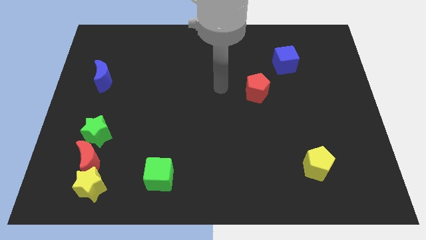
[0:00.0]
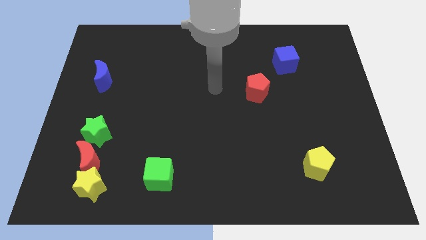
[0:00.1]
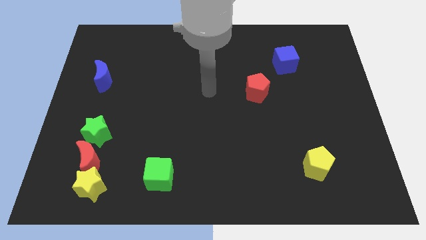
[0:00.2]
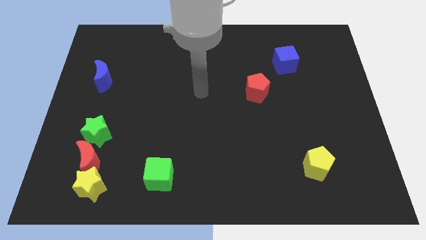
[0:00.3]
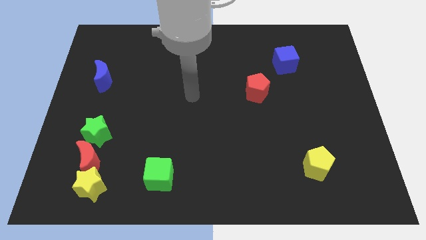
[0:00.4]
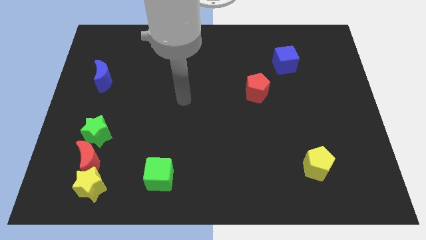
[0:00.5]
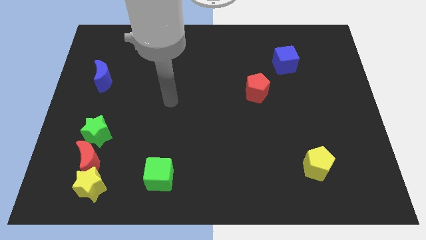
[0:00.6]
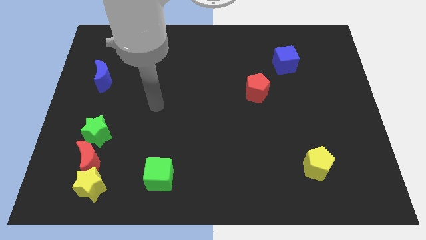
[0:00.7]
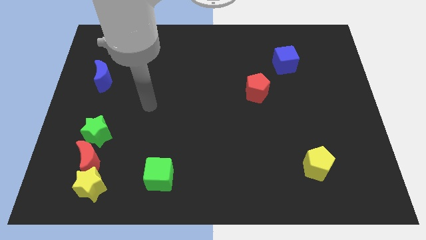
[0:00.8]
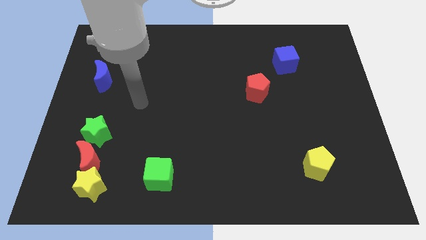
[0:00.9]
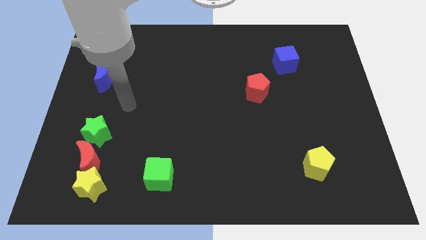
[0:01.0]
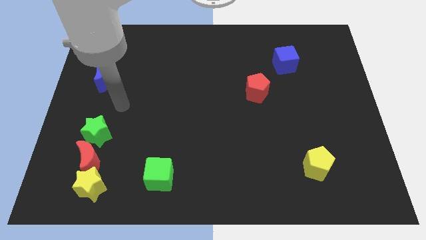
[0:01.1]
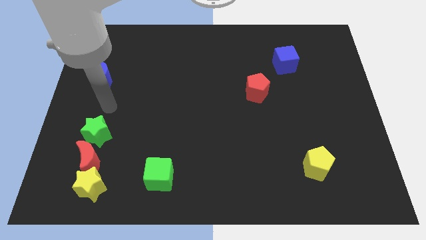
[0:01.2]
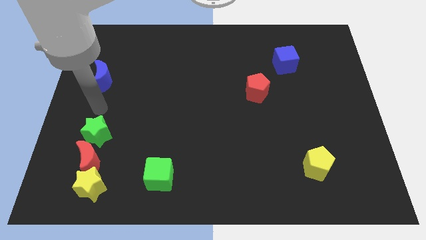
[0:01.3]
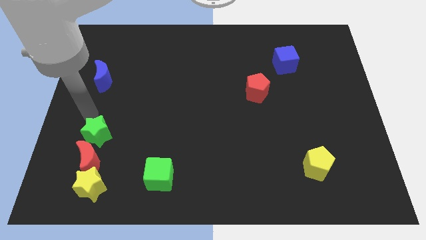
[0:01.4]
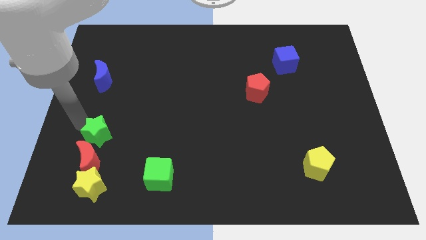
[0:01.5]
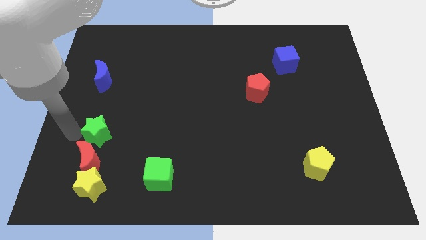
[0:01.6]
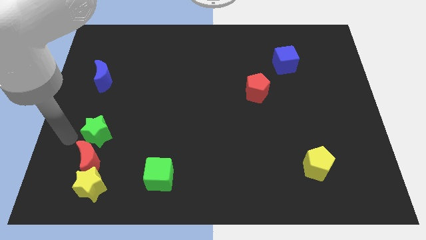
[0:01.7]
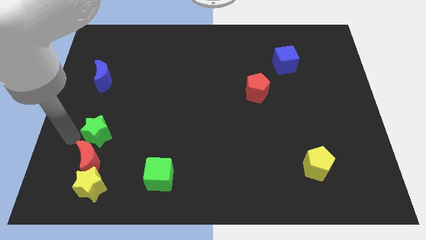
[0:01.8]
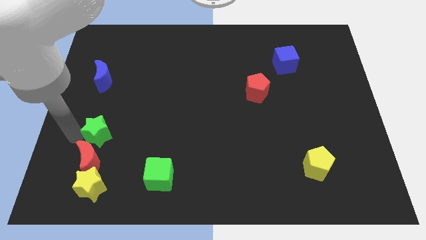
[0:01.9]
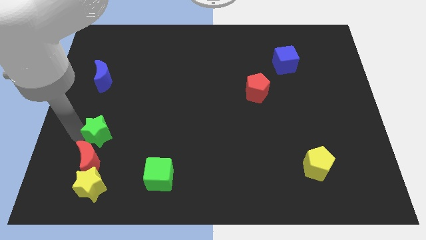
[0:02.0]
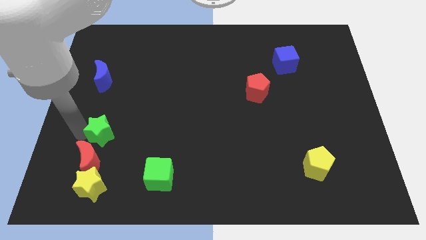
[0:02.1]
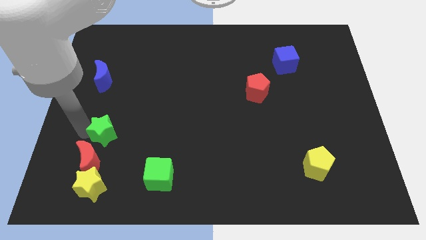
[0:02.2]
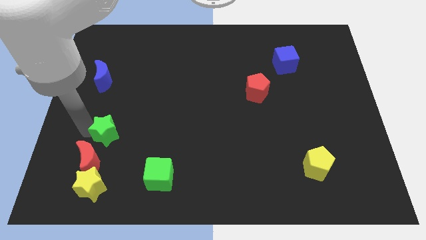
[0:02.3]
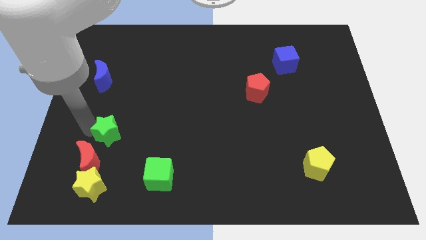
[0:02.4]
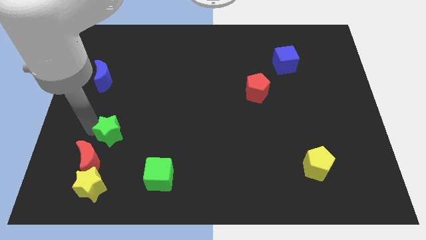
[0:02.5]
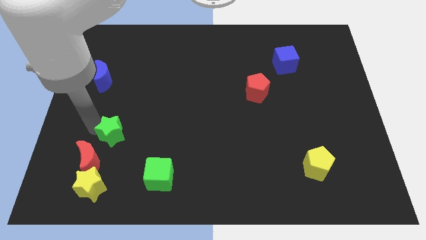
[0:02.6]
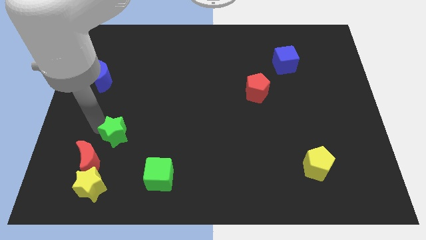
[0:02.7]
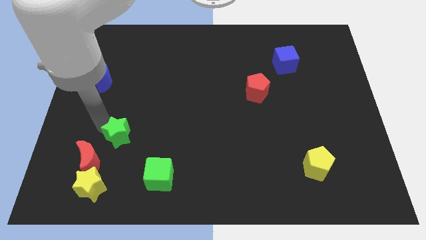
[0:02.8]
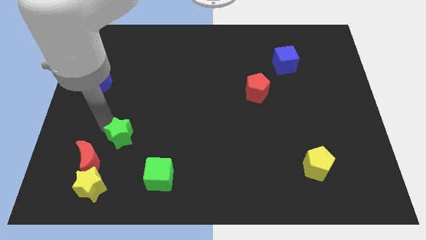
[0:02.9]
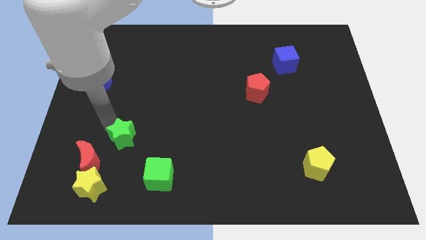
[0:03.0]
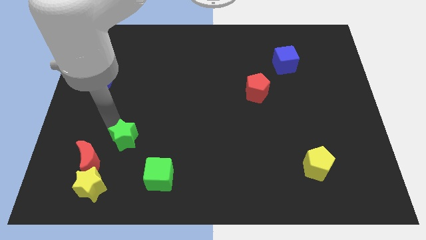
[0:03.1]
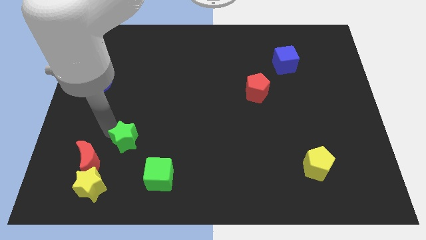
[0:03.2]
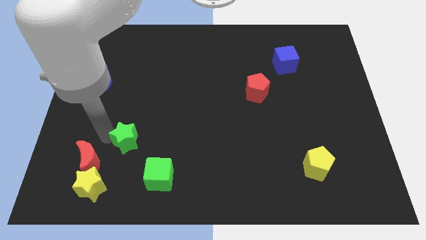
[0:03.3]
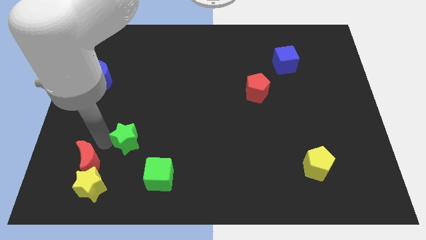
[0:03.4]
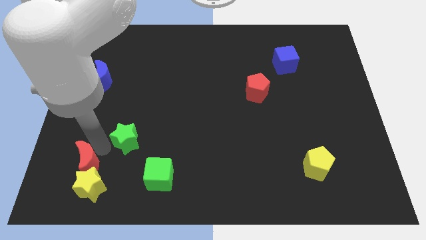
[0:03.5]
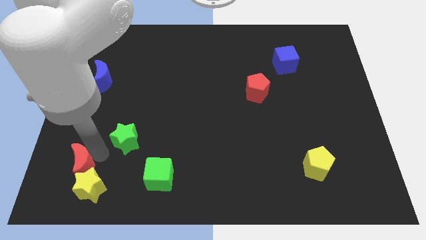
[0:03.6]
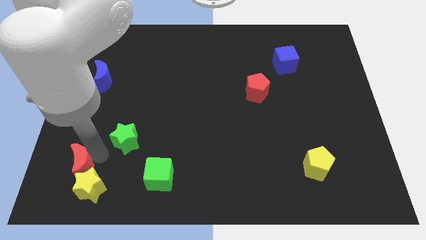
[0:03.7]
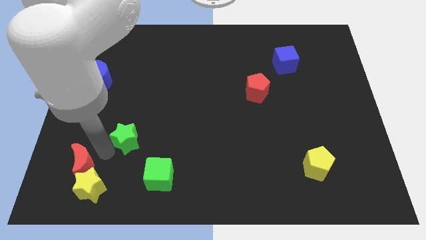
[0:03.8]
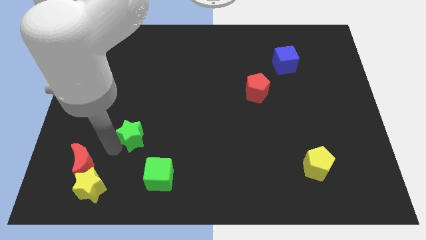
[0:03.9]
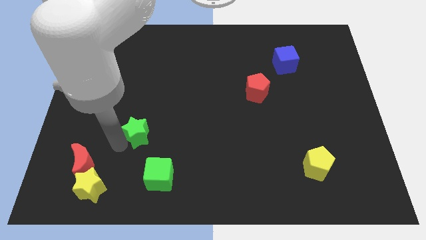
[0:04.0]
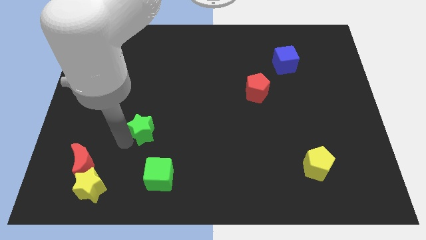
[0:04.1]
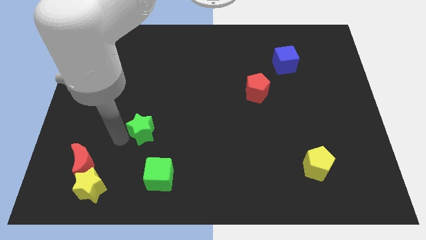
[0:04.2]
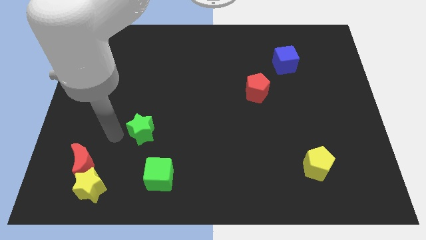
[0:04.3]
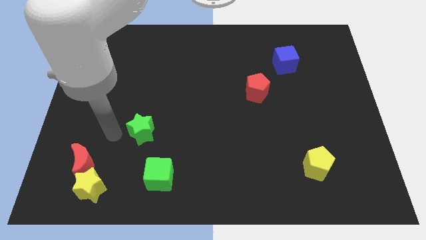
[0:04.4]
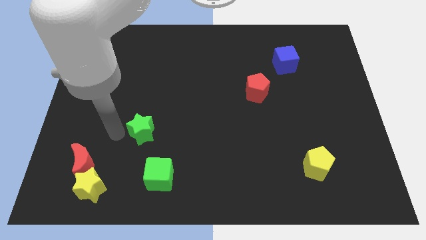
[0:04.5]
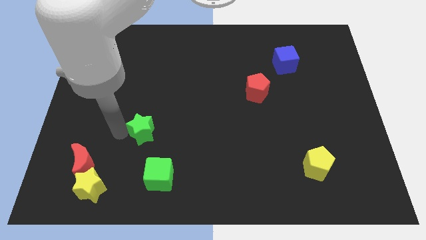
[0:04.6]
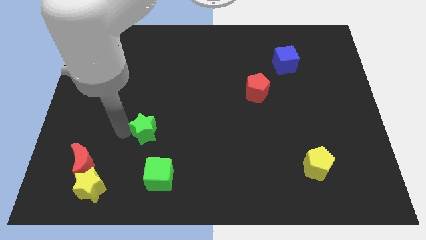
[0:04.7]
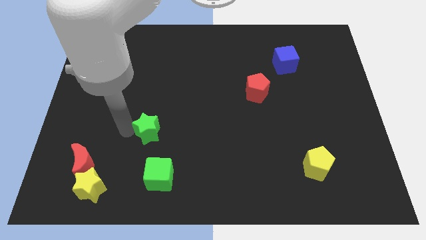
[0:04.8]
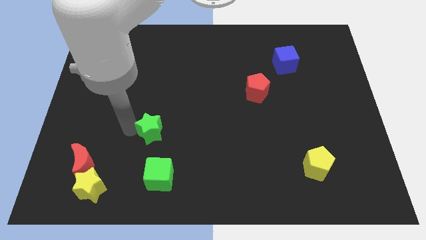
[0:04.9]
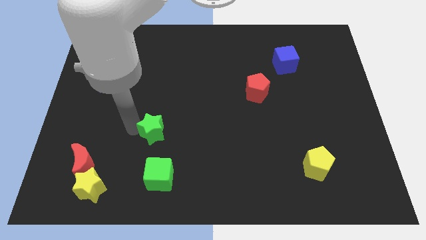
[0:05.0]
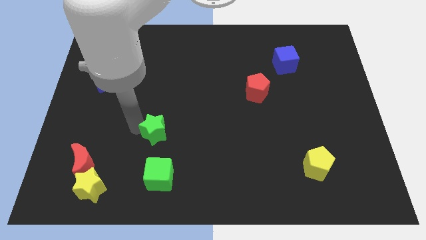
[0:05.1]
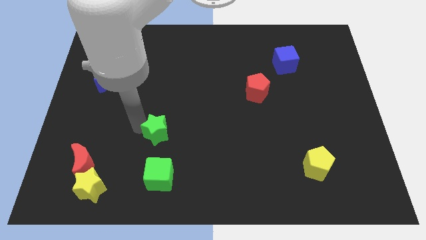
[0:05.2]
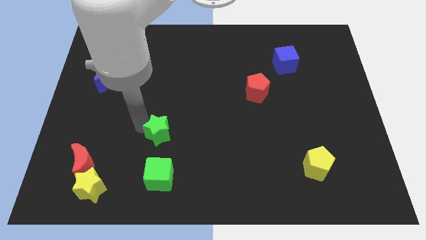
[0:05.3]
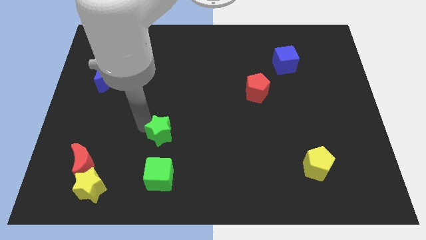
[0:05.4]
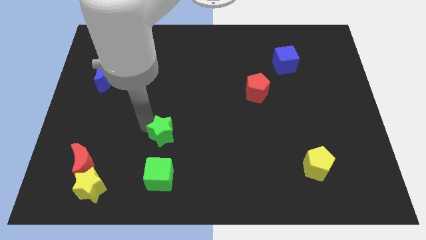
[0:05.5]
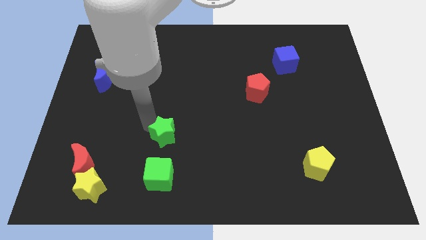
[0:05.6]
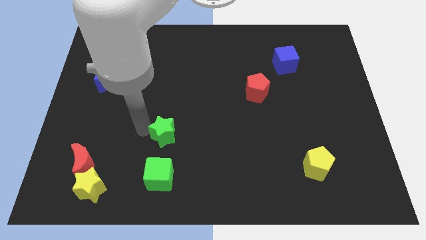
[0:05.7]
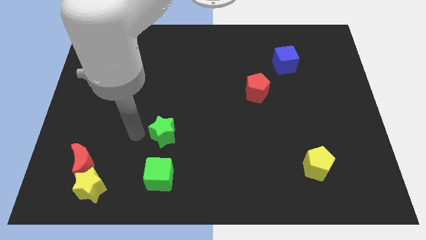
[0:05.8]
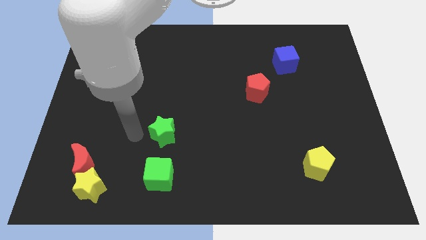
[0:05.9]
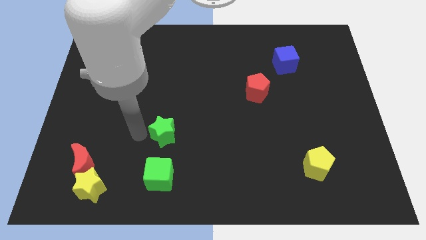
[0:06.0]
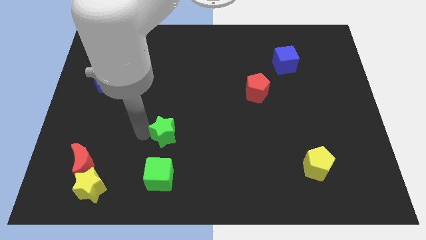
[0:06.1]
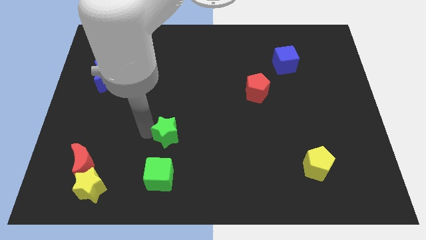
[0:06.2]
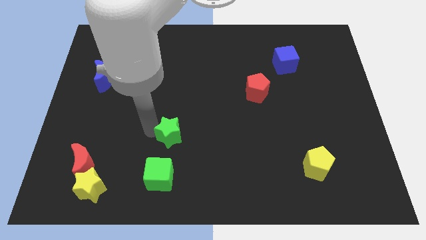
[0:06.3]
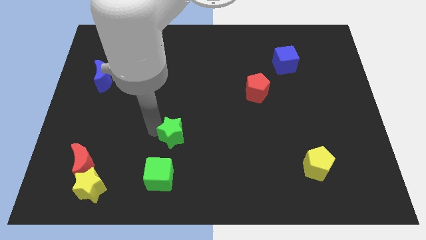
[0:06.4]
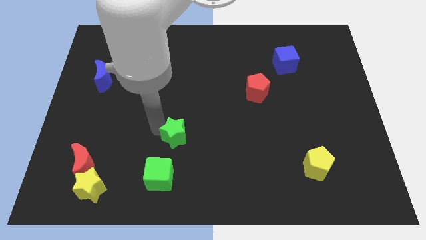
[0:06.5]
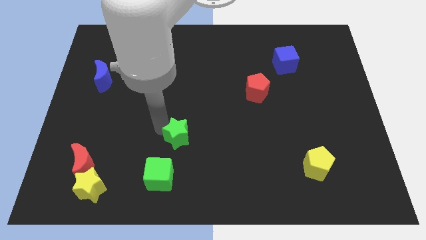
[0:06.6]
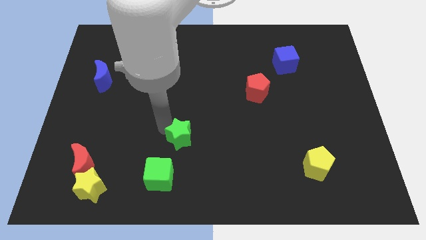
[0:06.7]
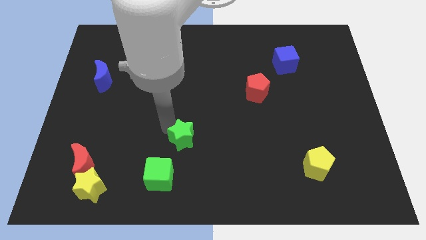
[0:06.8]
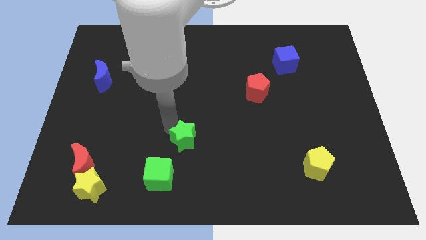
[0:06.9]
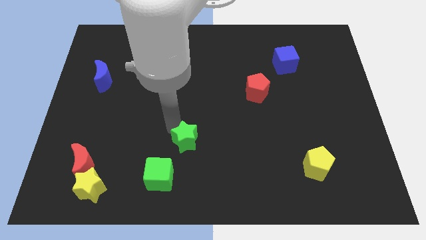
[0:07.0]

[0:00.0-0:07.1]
move the green star to the right

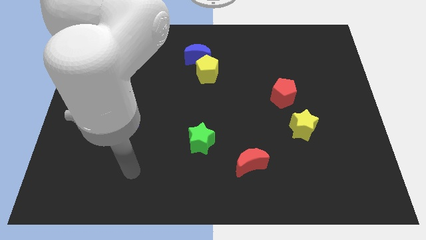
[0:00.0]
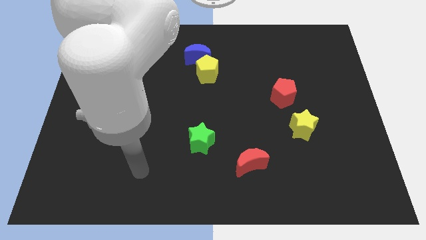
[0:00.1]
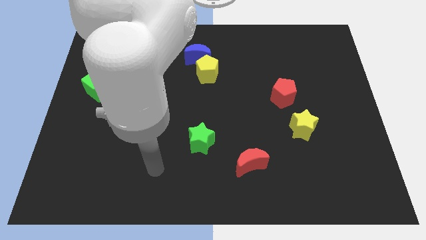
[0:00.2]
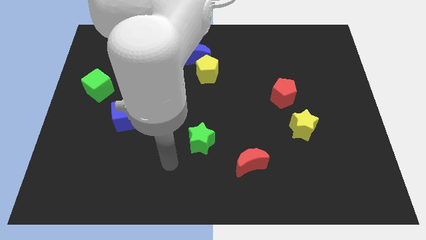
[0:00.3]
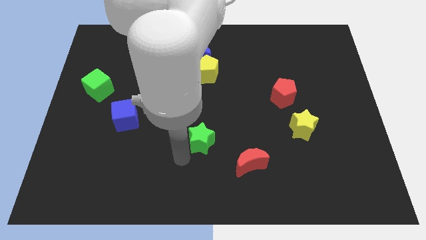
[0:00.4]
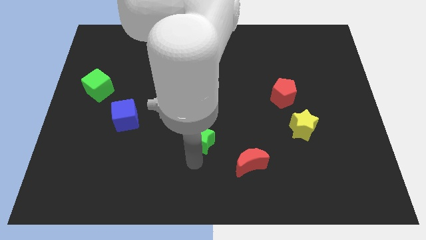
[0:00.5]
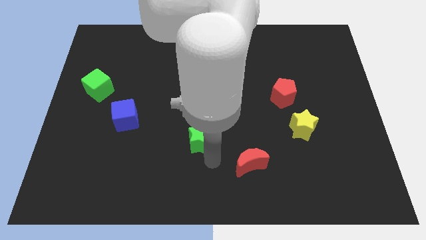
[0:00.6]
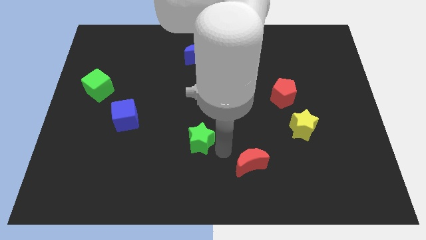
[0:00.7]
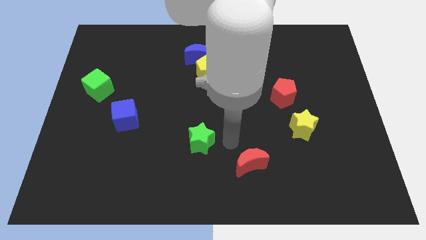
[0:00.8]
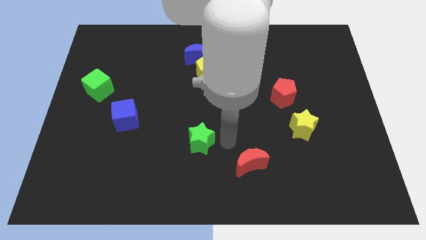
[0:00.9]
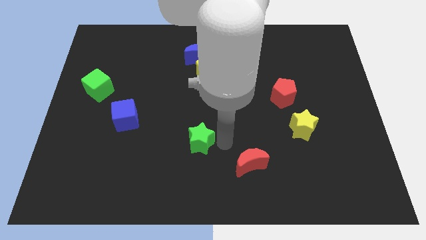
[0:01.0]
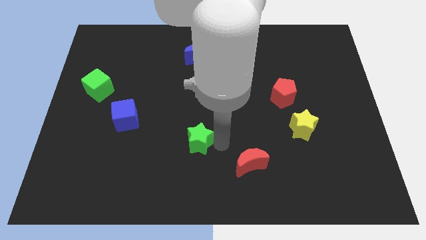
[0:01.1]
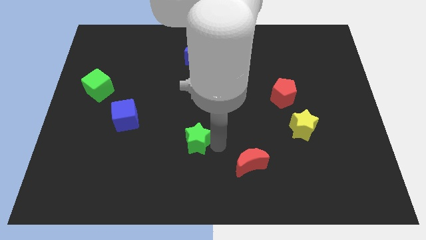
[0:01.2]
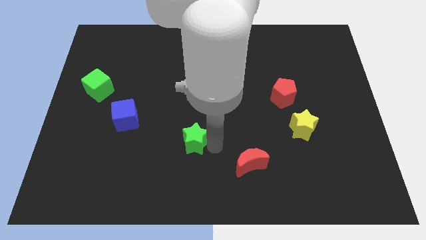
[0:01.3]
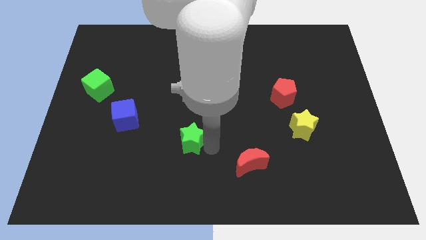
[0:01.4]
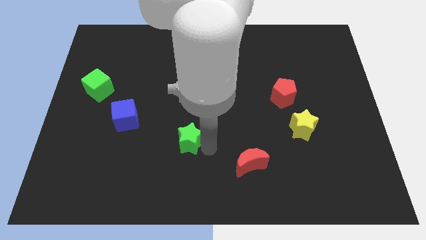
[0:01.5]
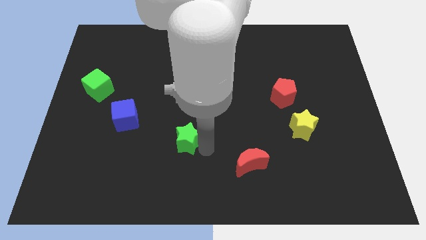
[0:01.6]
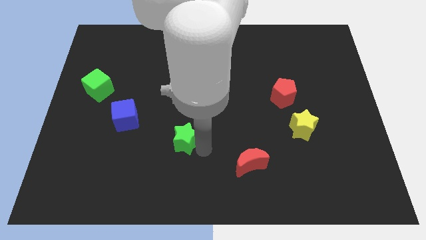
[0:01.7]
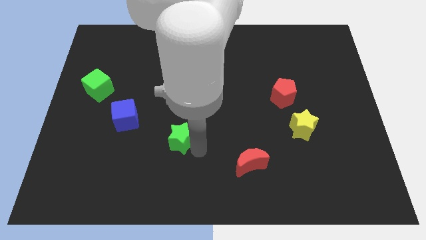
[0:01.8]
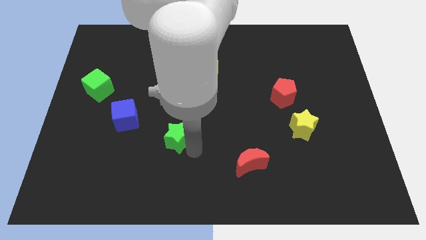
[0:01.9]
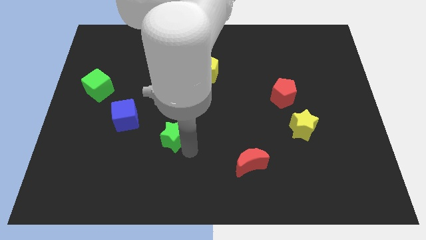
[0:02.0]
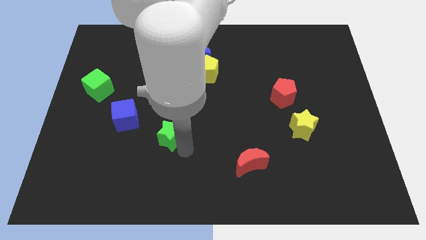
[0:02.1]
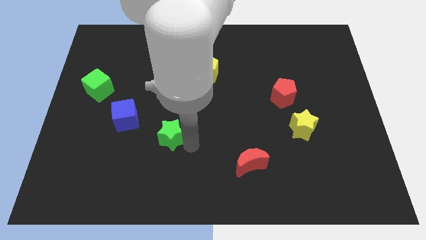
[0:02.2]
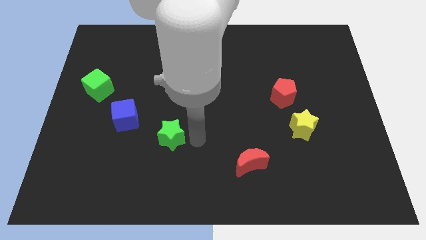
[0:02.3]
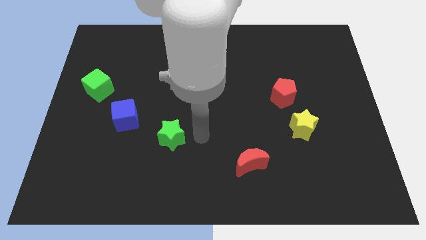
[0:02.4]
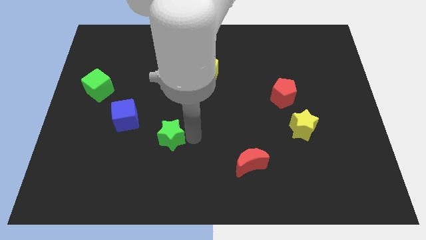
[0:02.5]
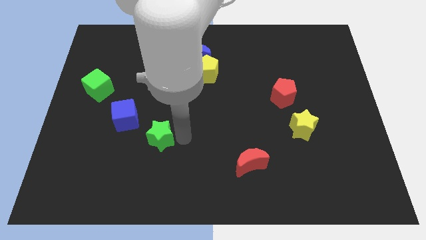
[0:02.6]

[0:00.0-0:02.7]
slide the green star slightly to the left
